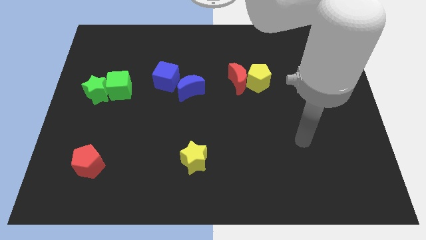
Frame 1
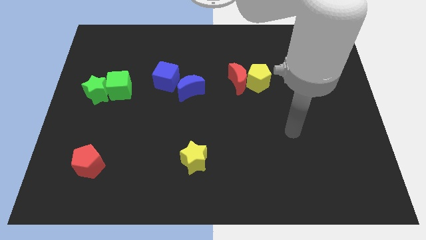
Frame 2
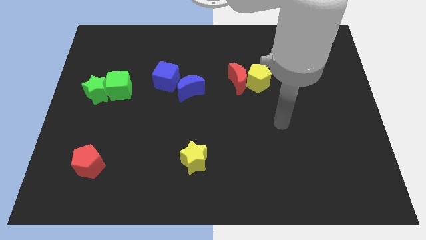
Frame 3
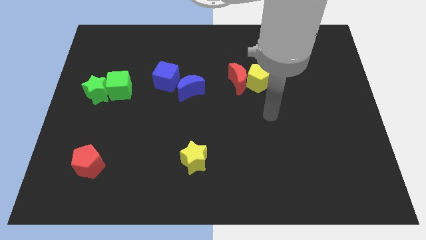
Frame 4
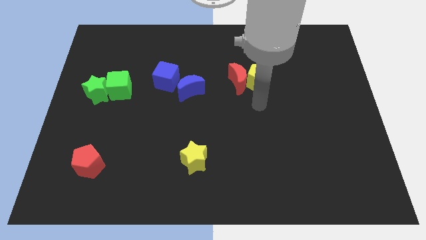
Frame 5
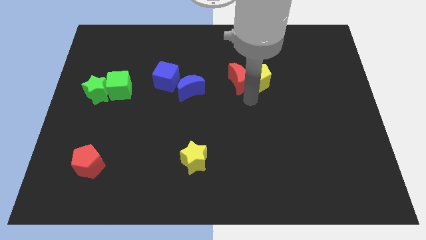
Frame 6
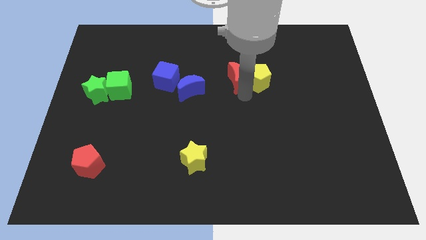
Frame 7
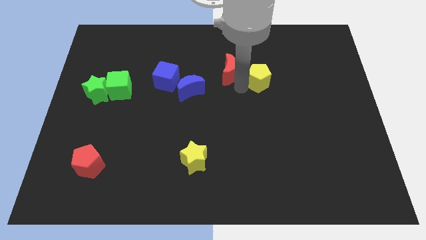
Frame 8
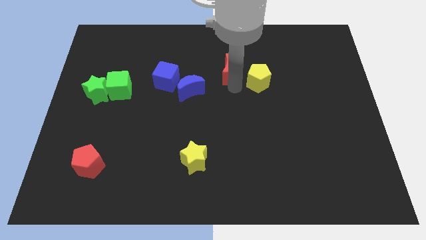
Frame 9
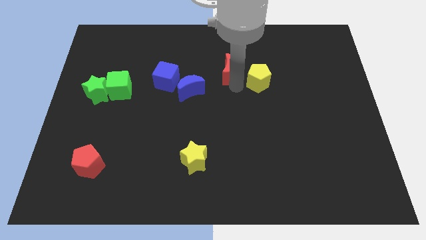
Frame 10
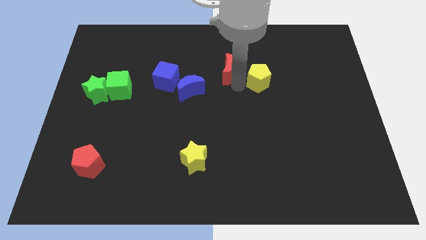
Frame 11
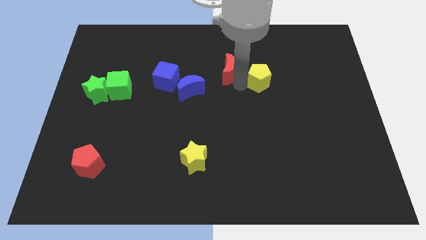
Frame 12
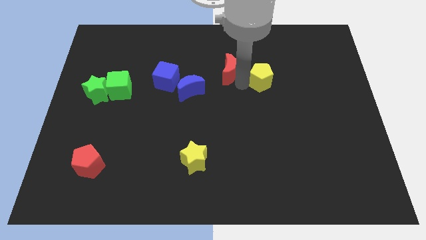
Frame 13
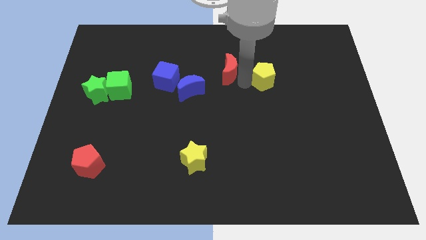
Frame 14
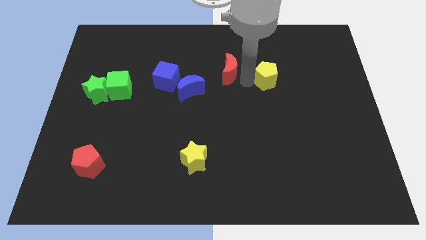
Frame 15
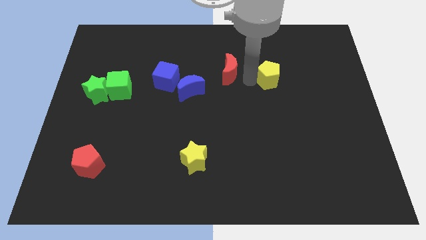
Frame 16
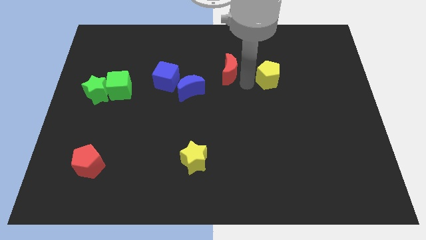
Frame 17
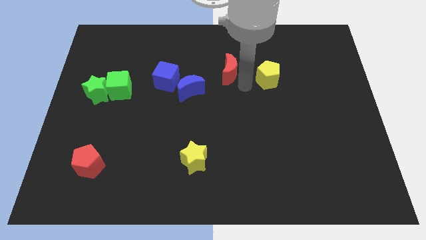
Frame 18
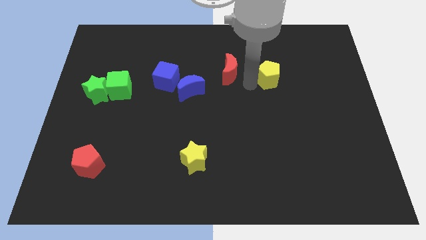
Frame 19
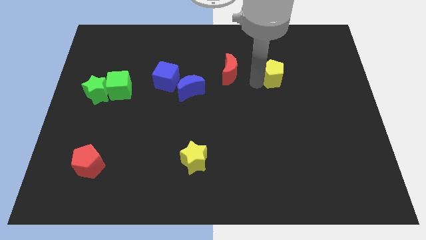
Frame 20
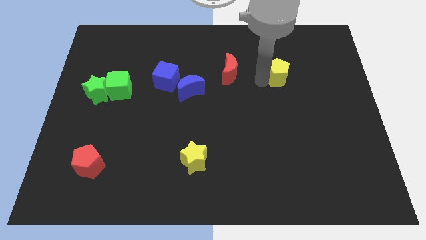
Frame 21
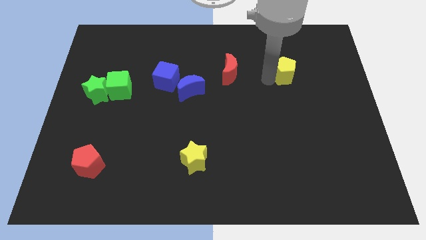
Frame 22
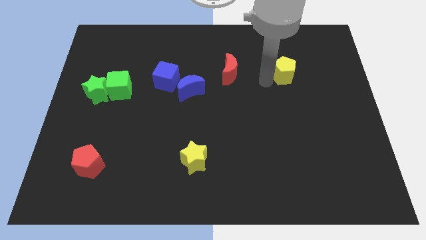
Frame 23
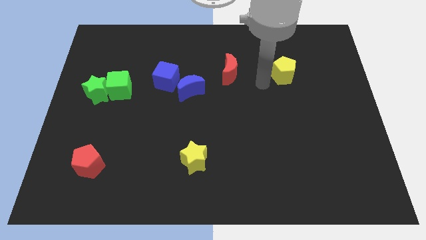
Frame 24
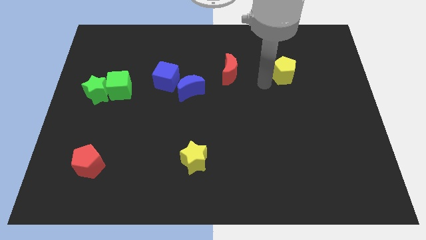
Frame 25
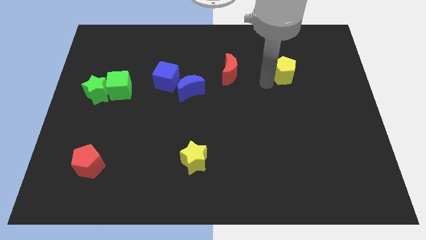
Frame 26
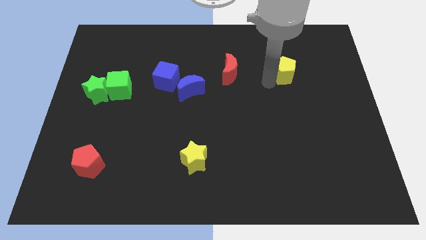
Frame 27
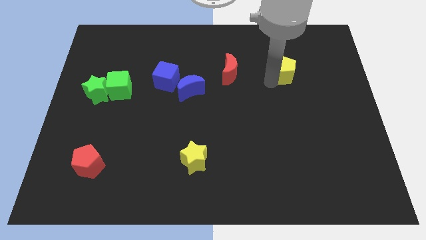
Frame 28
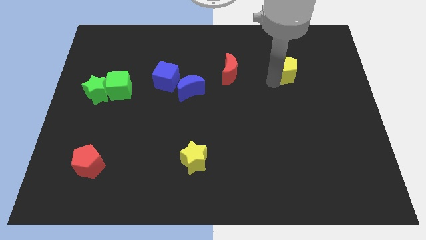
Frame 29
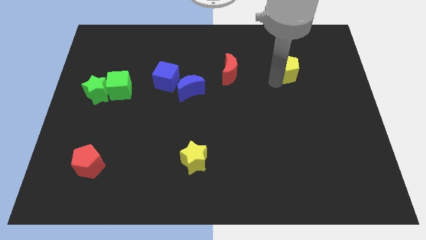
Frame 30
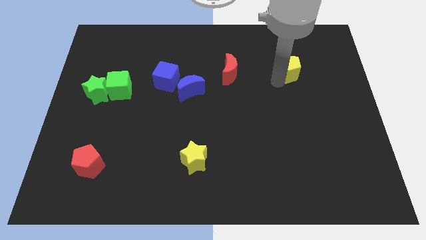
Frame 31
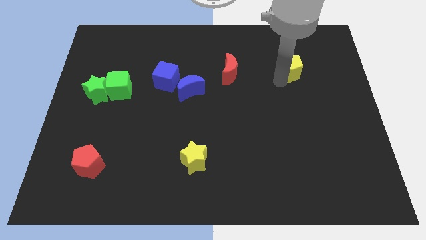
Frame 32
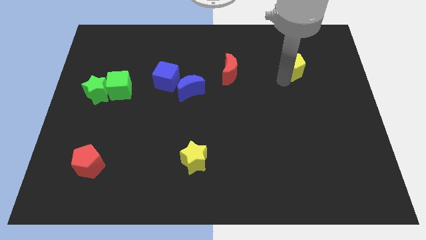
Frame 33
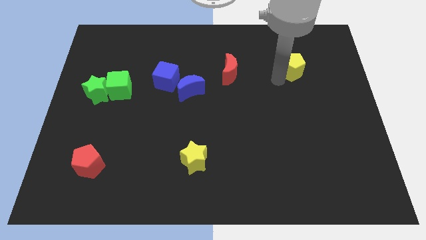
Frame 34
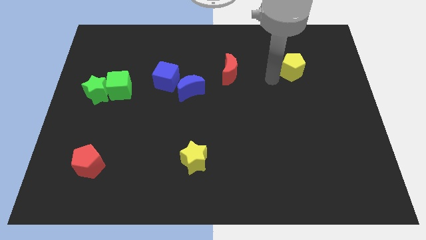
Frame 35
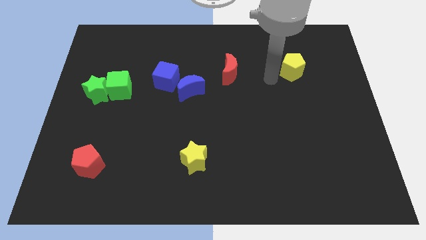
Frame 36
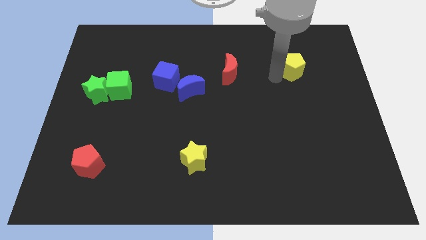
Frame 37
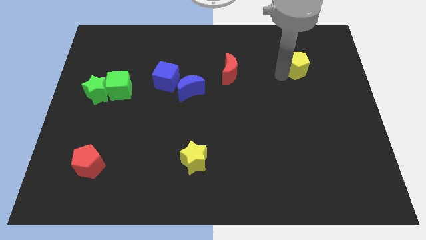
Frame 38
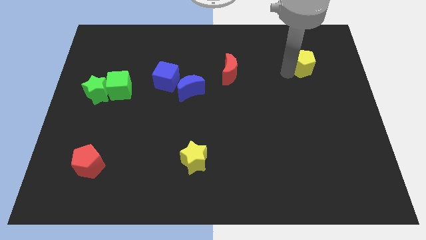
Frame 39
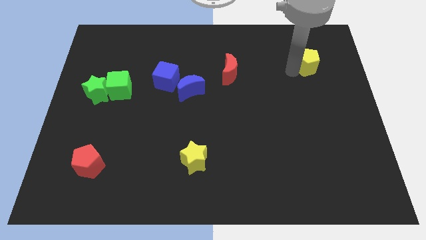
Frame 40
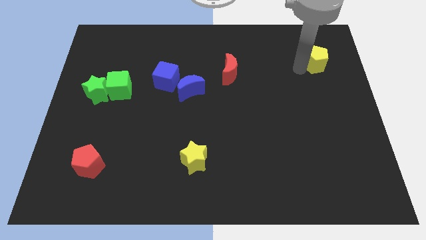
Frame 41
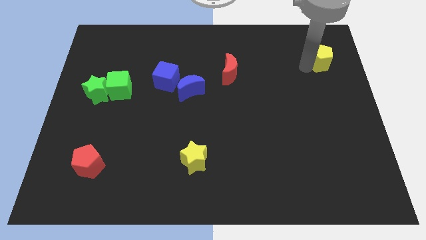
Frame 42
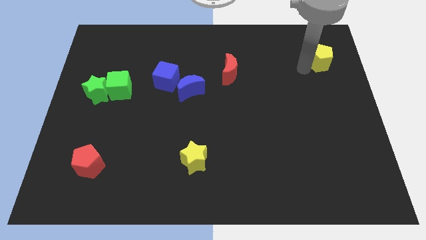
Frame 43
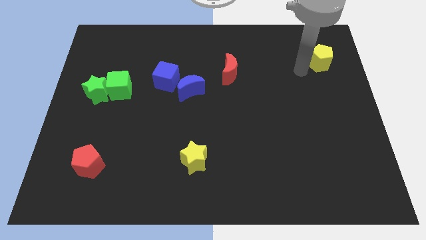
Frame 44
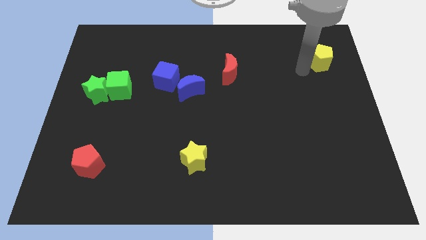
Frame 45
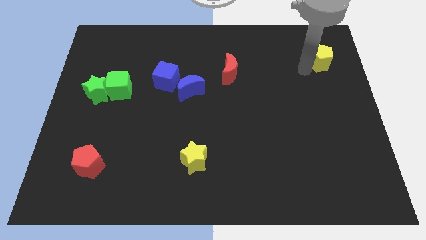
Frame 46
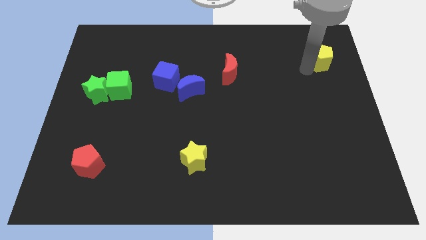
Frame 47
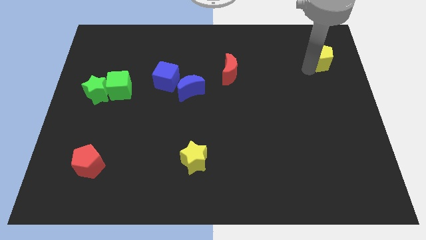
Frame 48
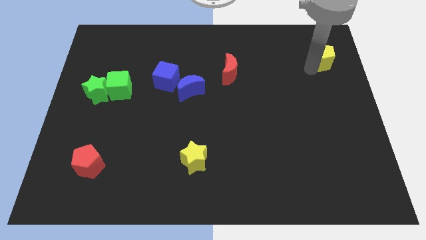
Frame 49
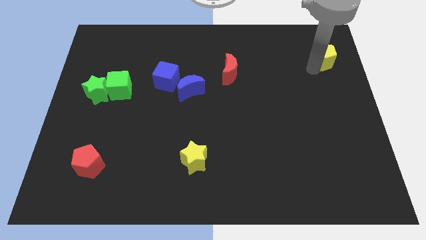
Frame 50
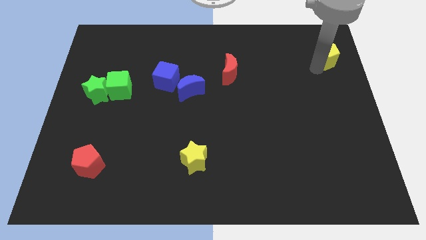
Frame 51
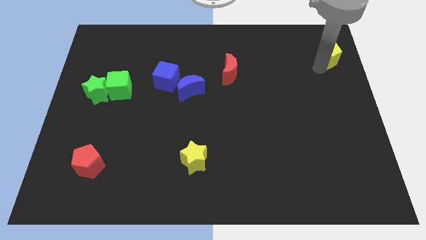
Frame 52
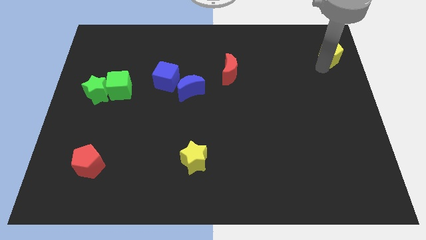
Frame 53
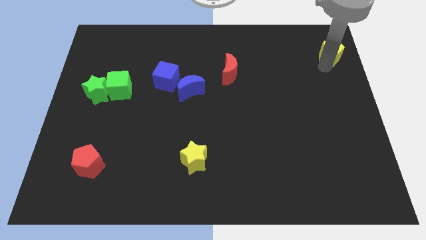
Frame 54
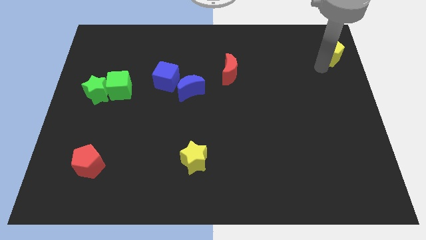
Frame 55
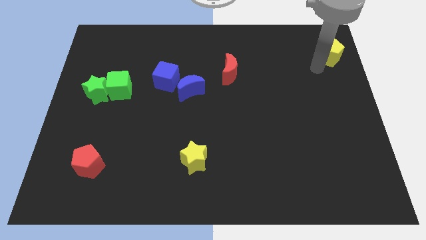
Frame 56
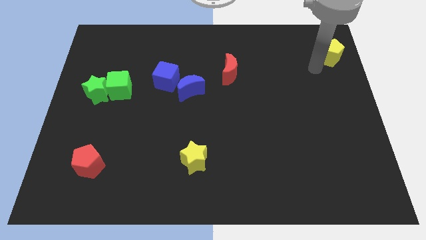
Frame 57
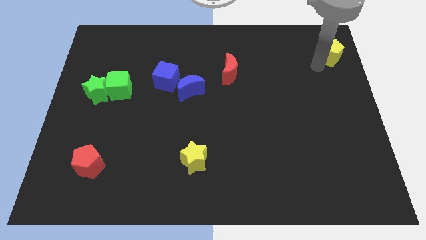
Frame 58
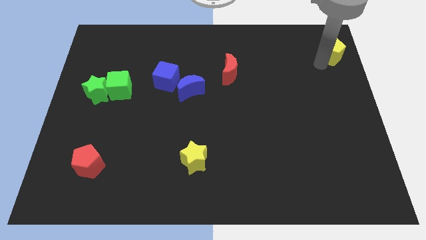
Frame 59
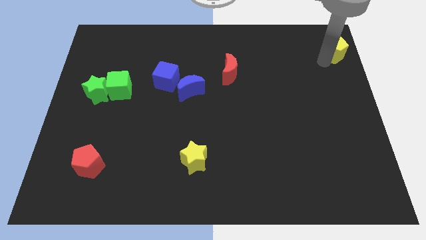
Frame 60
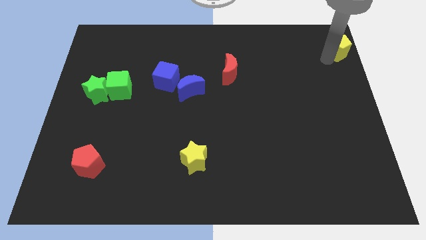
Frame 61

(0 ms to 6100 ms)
move the yellow pentagon to the top right

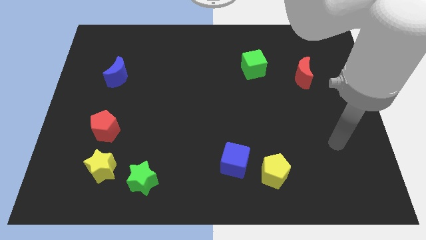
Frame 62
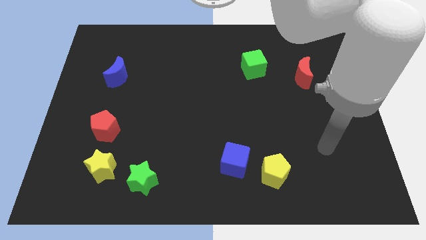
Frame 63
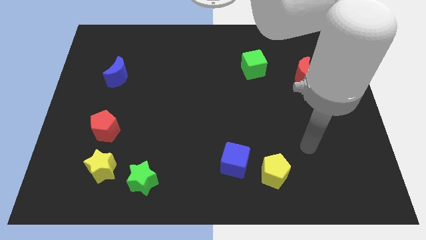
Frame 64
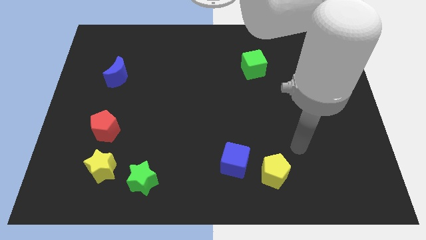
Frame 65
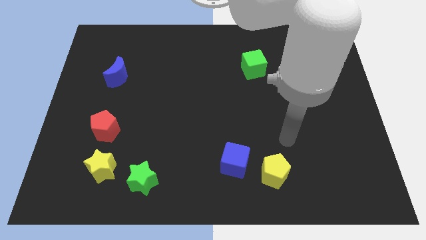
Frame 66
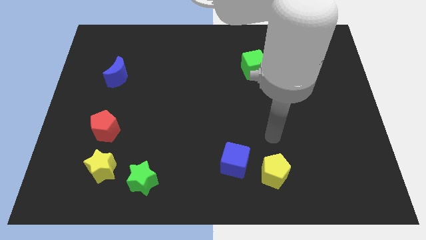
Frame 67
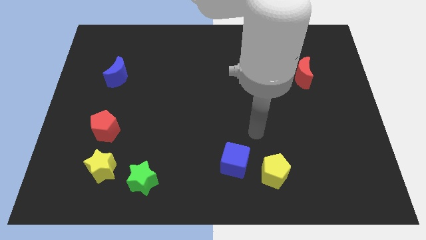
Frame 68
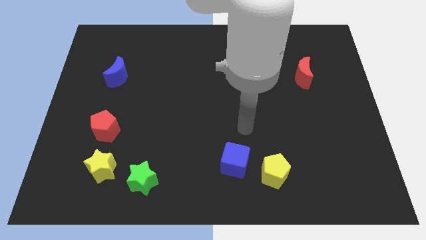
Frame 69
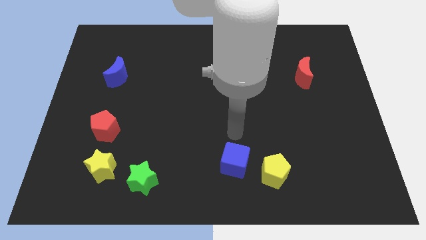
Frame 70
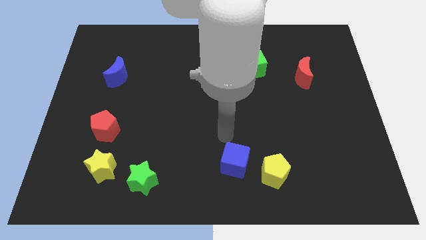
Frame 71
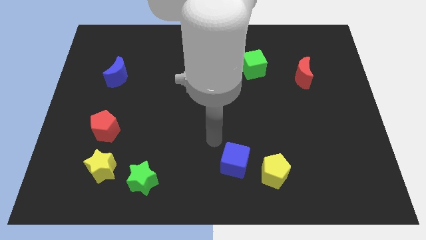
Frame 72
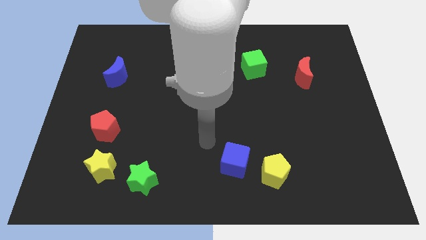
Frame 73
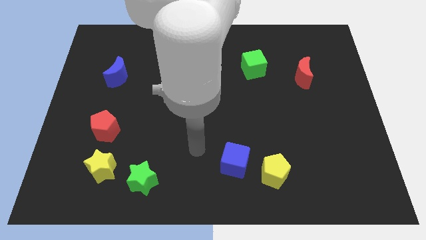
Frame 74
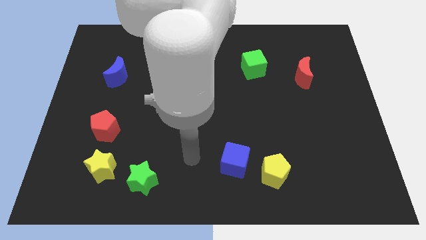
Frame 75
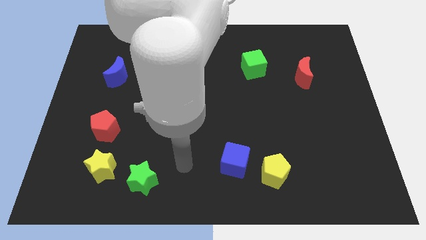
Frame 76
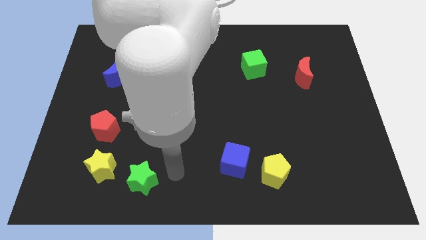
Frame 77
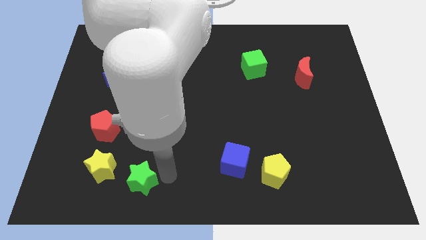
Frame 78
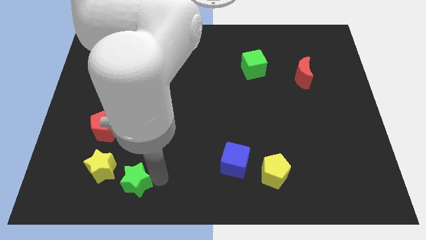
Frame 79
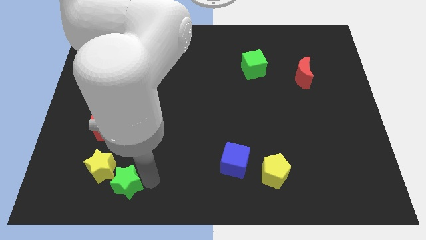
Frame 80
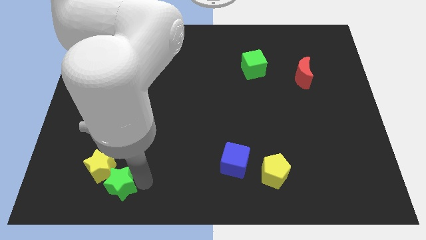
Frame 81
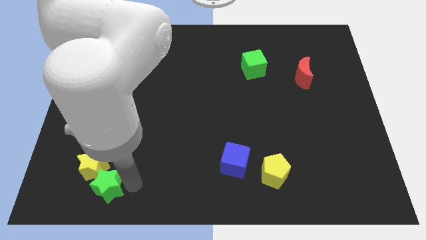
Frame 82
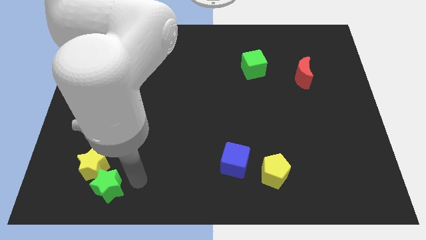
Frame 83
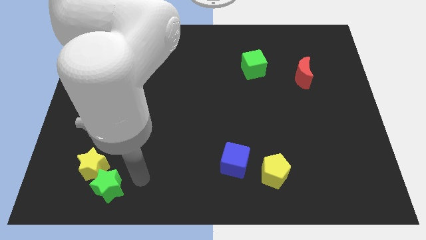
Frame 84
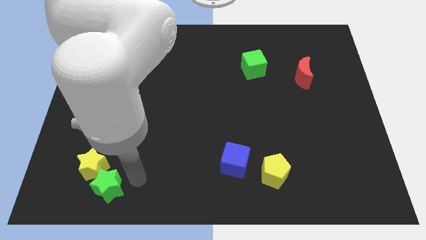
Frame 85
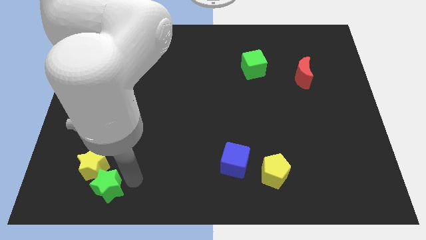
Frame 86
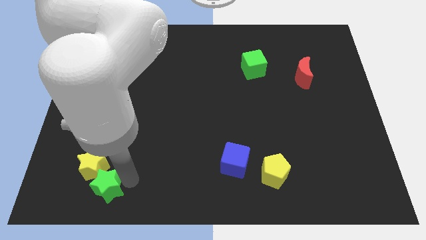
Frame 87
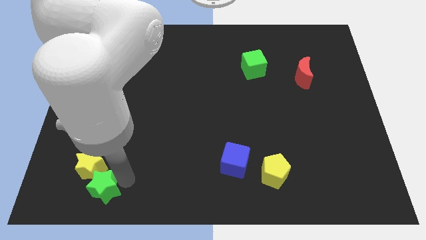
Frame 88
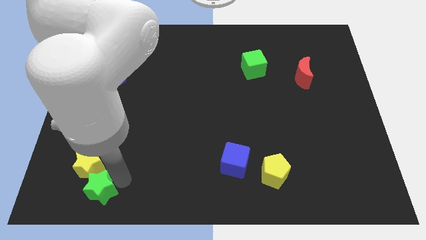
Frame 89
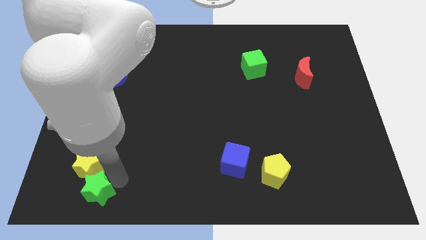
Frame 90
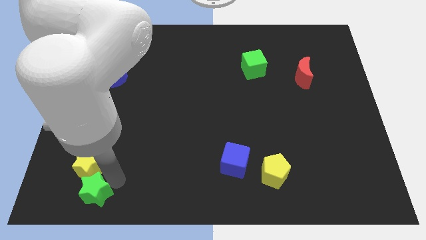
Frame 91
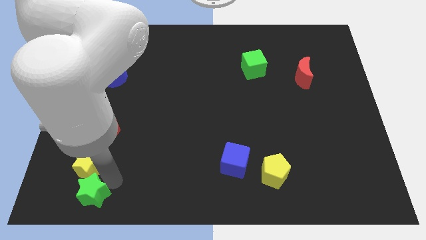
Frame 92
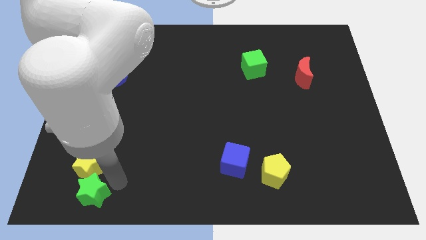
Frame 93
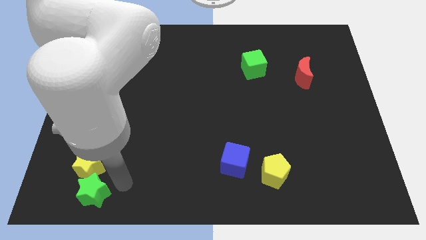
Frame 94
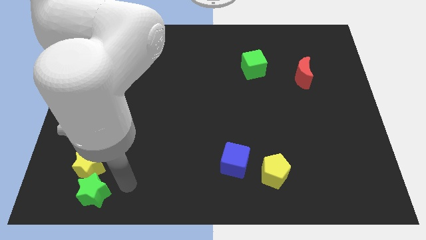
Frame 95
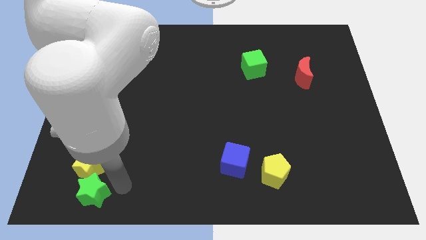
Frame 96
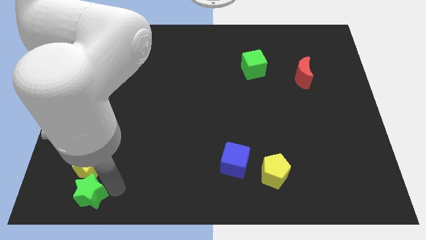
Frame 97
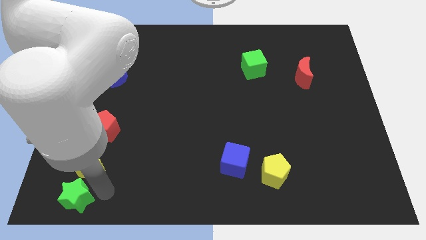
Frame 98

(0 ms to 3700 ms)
slide the green star to the bottom left
